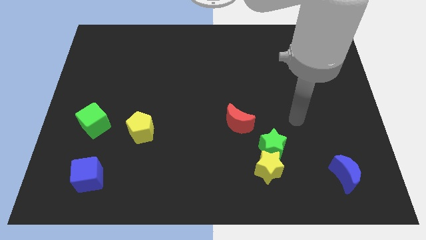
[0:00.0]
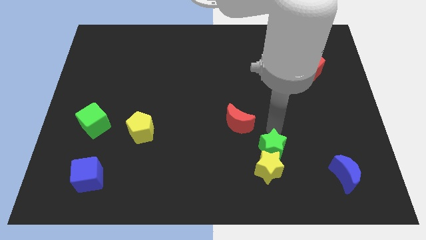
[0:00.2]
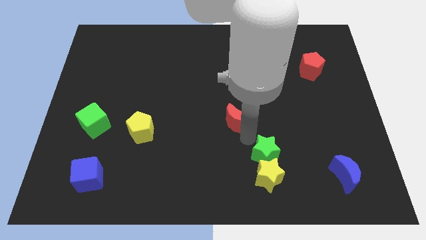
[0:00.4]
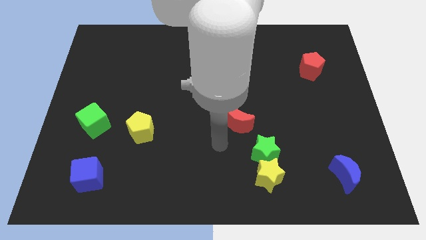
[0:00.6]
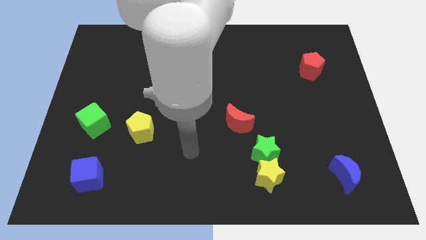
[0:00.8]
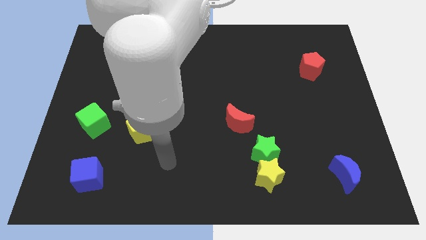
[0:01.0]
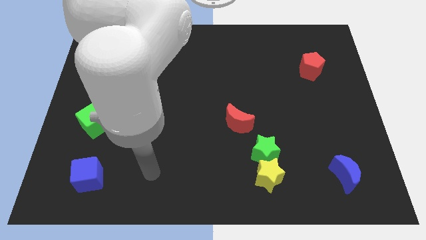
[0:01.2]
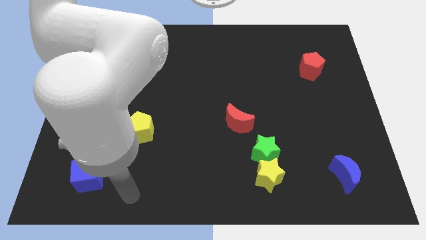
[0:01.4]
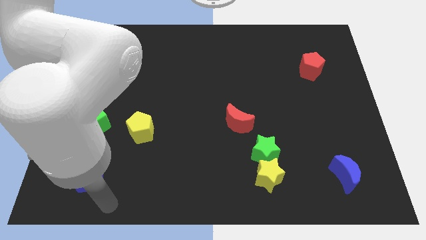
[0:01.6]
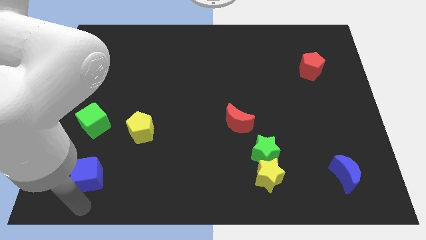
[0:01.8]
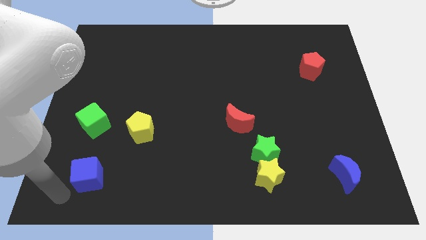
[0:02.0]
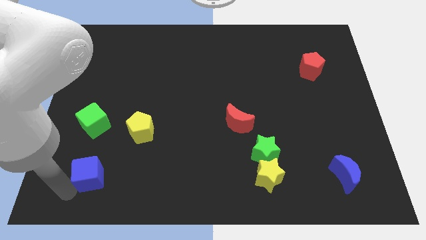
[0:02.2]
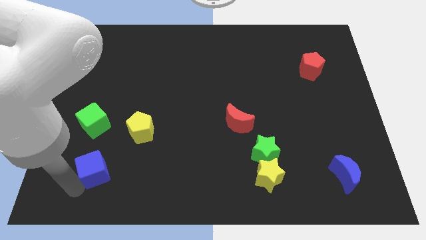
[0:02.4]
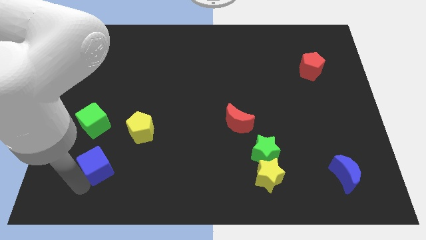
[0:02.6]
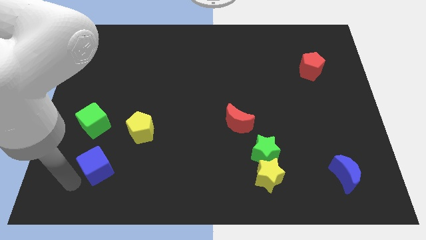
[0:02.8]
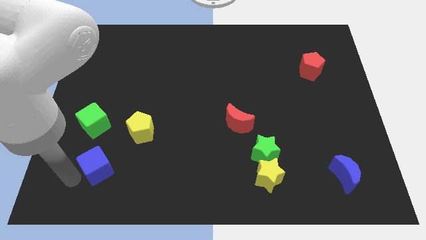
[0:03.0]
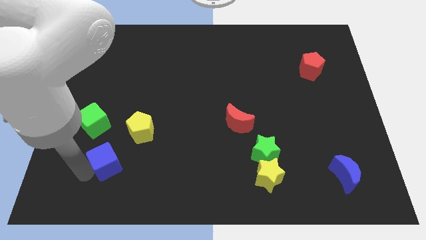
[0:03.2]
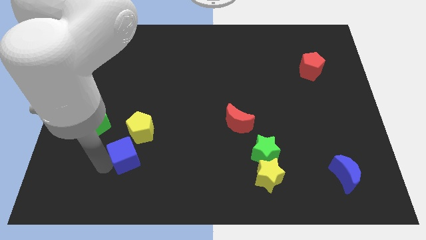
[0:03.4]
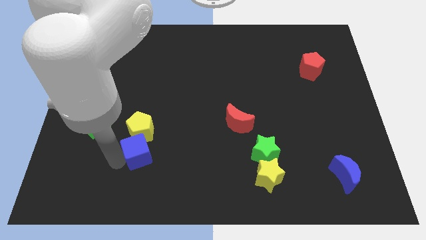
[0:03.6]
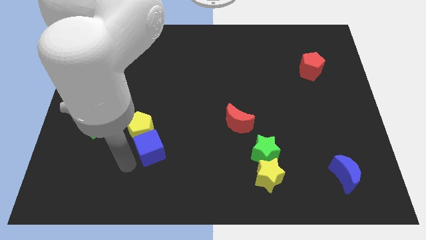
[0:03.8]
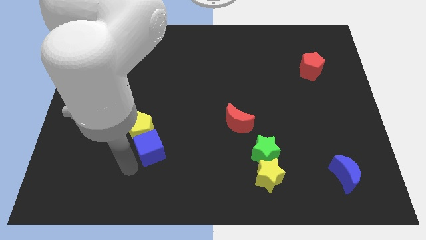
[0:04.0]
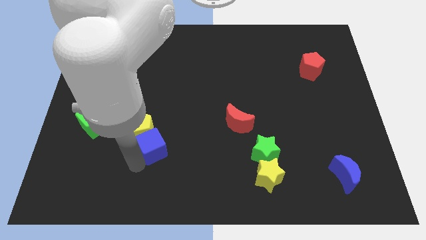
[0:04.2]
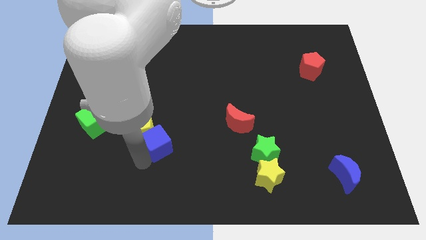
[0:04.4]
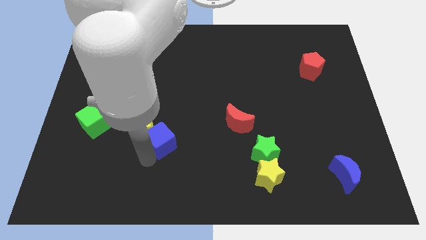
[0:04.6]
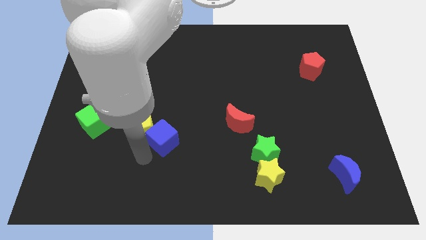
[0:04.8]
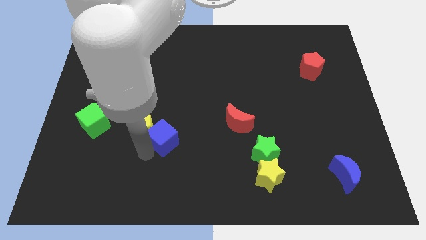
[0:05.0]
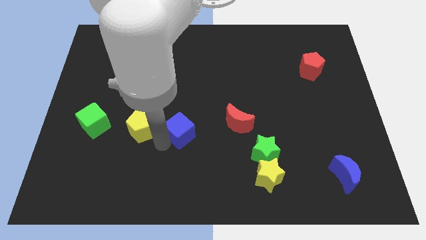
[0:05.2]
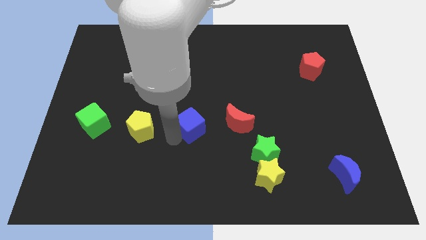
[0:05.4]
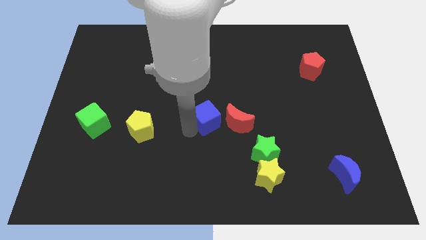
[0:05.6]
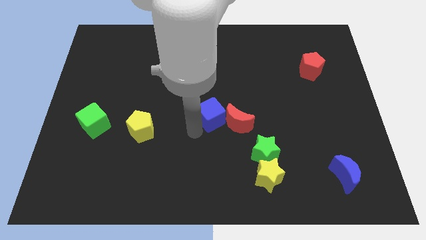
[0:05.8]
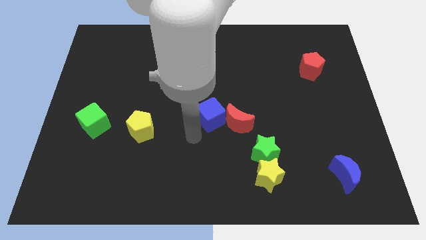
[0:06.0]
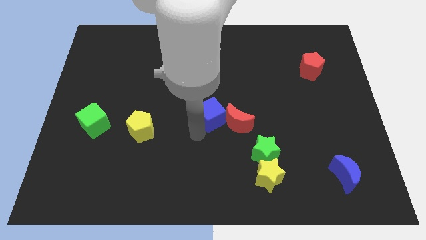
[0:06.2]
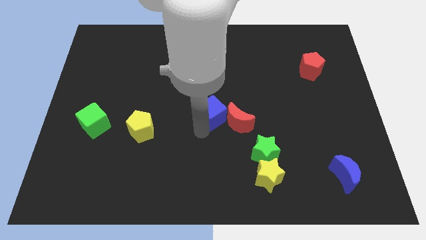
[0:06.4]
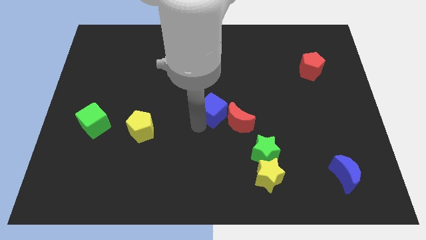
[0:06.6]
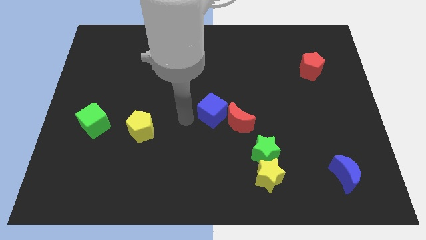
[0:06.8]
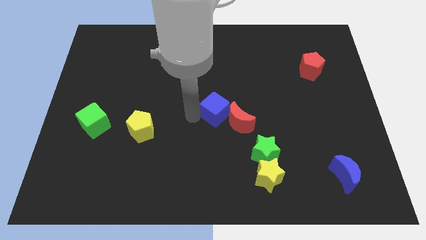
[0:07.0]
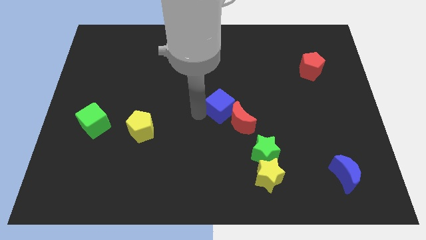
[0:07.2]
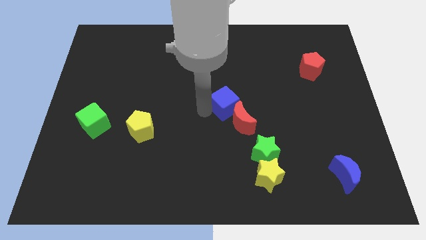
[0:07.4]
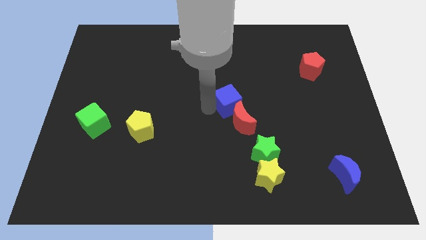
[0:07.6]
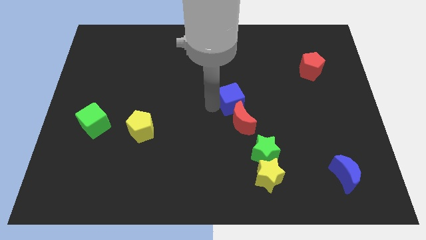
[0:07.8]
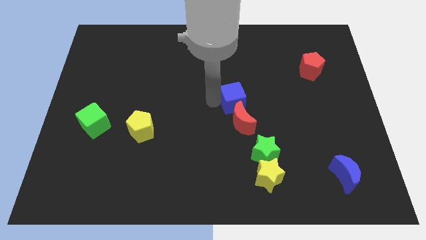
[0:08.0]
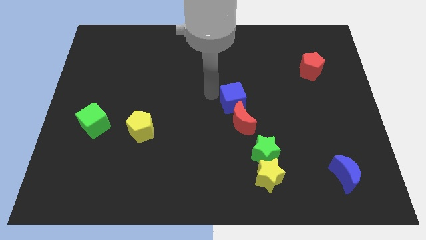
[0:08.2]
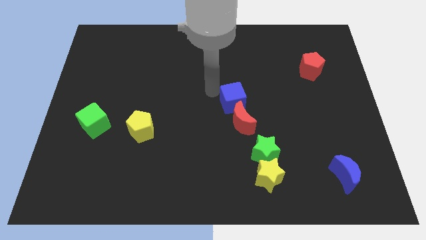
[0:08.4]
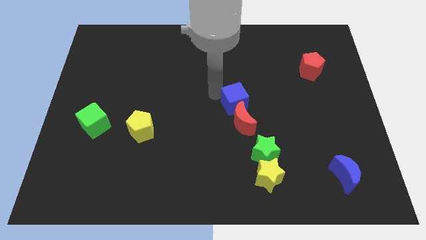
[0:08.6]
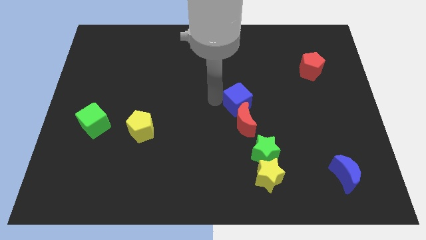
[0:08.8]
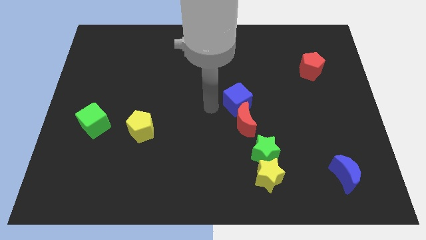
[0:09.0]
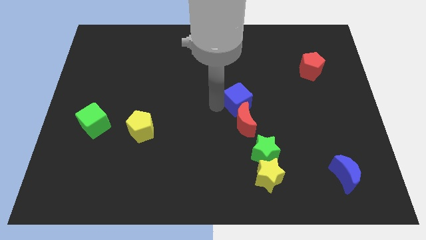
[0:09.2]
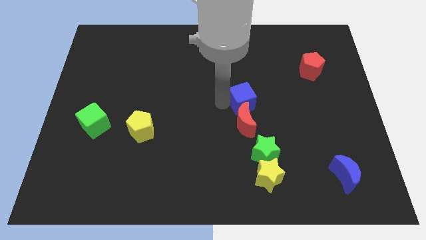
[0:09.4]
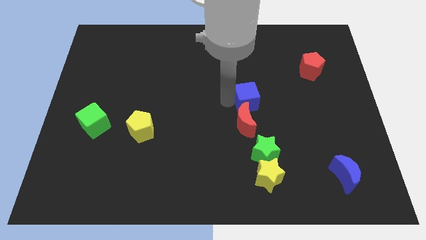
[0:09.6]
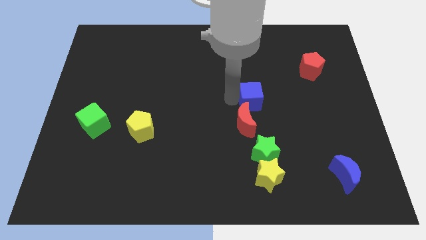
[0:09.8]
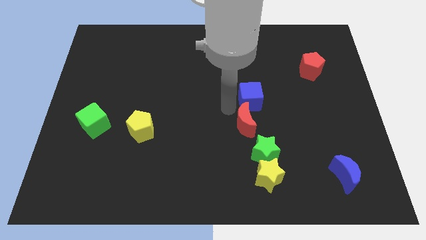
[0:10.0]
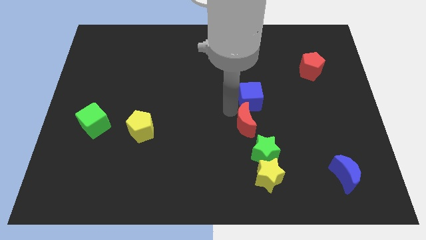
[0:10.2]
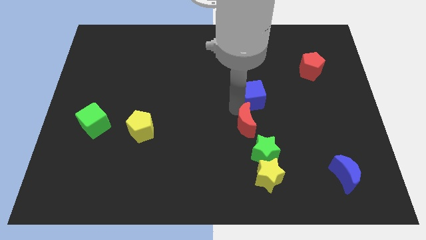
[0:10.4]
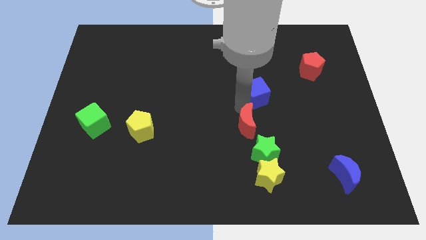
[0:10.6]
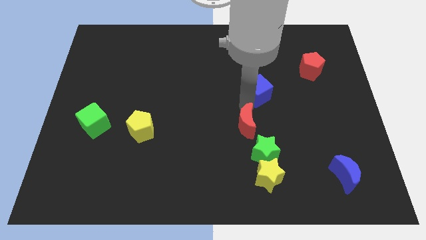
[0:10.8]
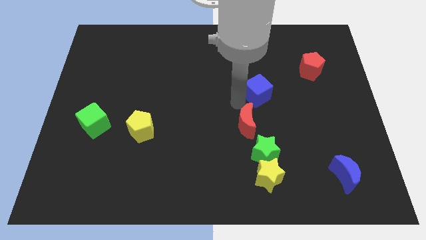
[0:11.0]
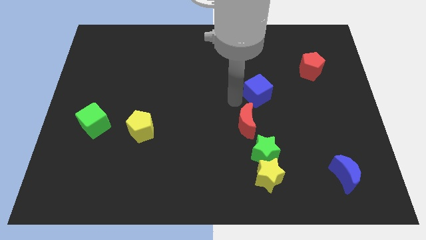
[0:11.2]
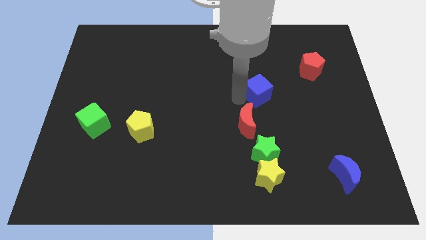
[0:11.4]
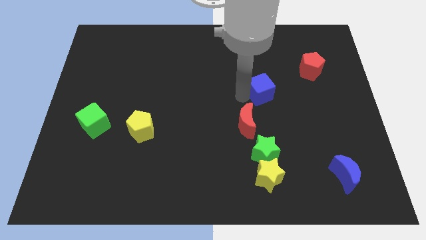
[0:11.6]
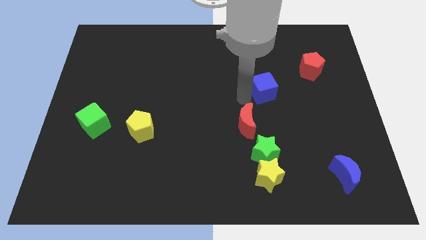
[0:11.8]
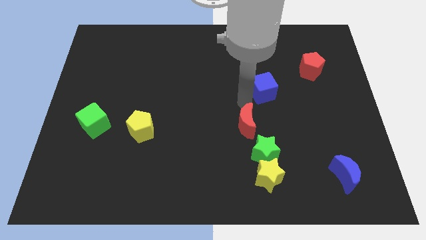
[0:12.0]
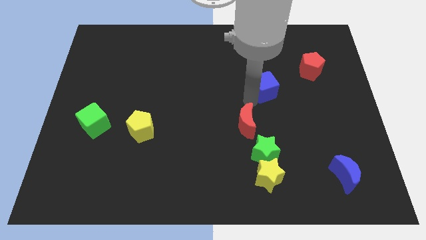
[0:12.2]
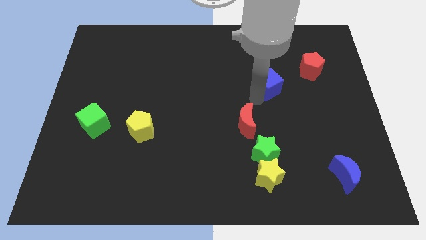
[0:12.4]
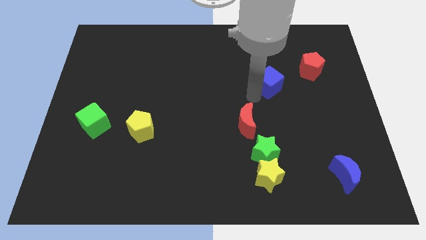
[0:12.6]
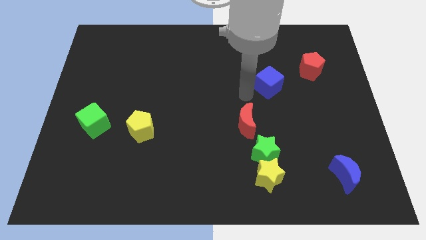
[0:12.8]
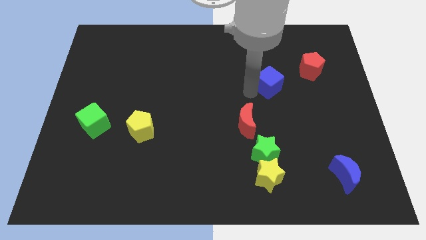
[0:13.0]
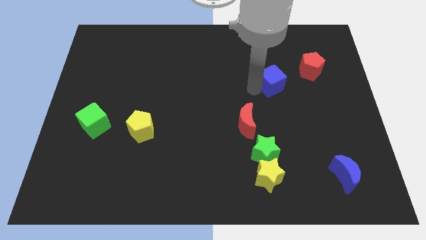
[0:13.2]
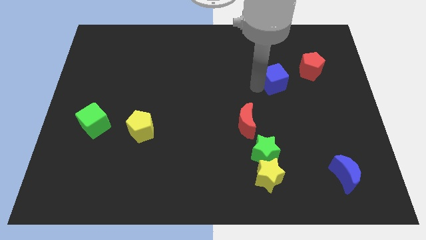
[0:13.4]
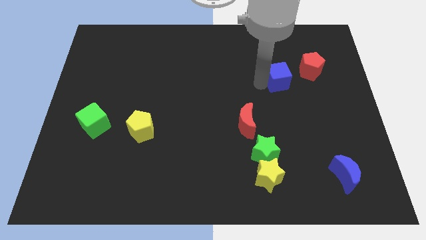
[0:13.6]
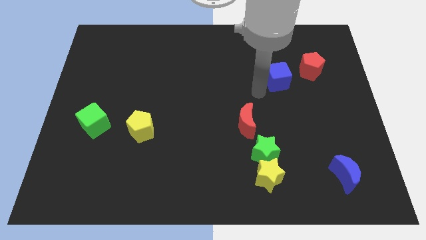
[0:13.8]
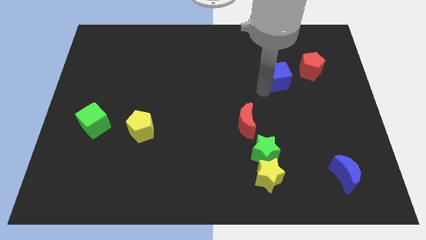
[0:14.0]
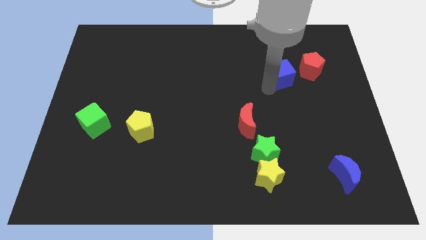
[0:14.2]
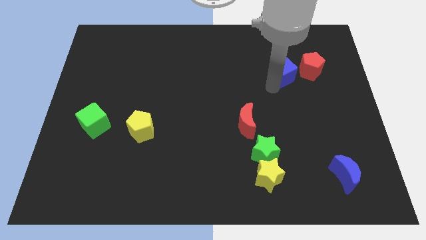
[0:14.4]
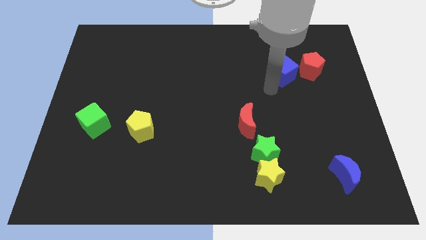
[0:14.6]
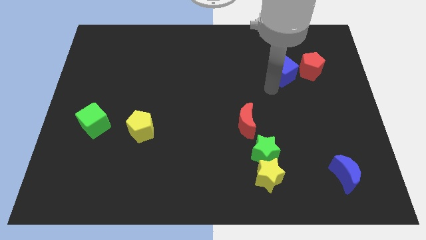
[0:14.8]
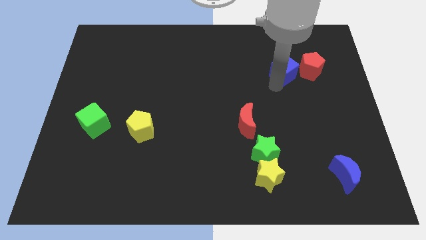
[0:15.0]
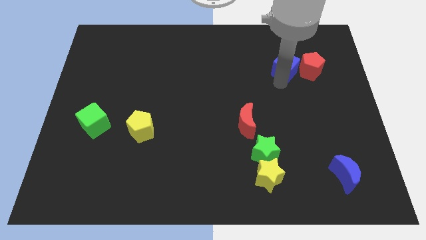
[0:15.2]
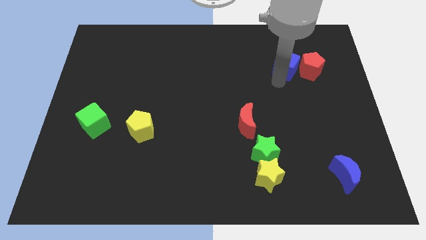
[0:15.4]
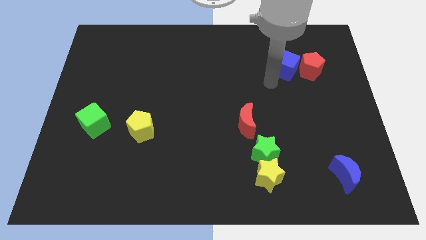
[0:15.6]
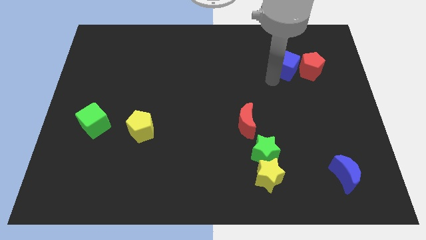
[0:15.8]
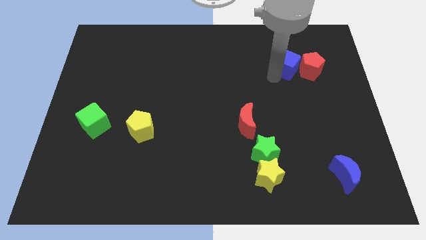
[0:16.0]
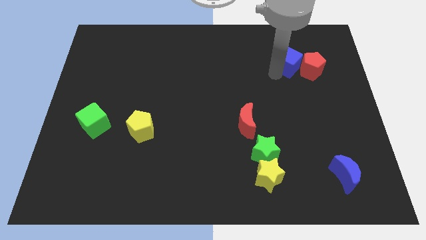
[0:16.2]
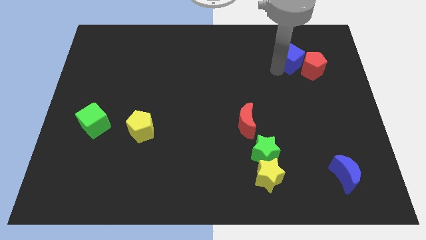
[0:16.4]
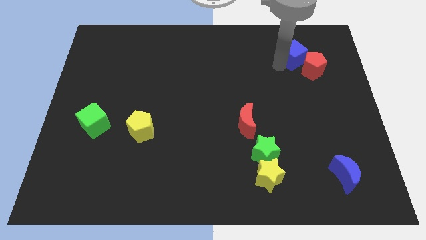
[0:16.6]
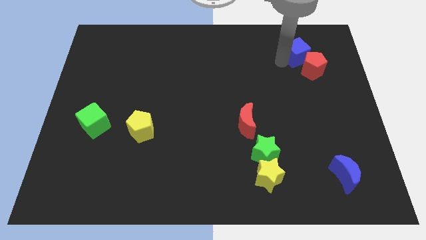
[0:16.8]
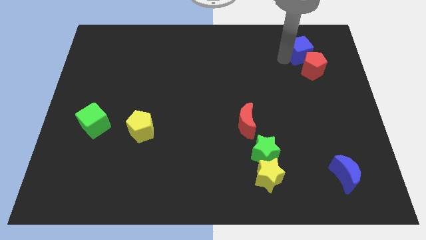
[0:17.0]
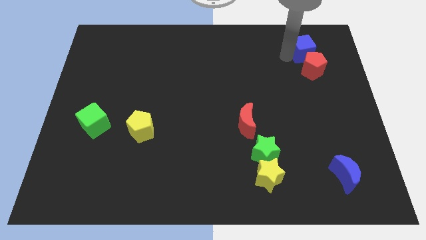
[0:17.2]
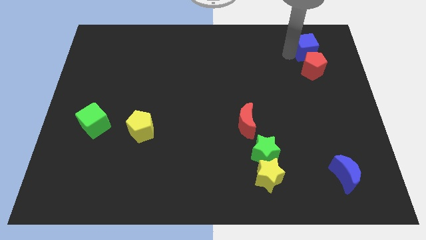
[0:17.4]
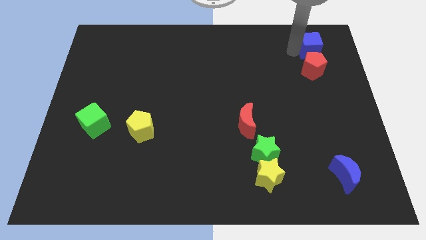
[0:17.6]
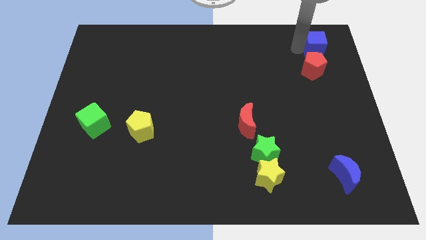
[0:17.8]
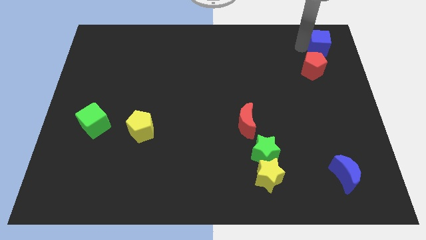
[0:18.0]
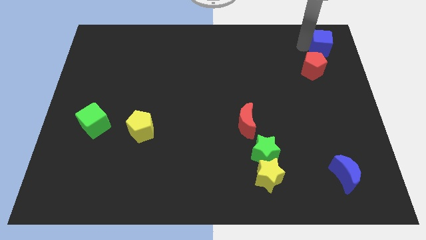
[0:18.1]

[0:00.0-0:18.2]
push the blue cube to the top right corner
